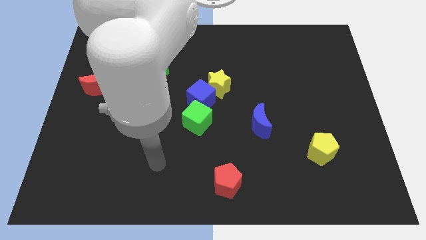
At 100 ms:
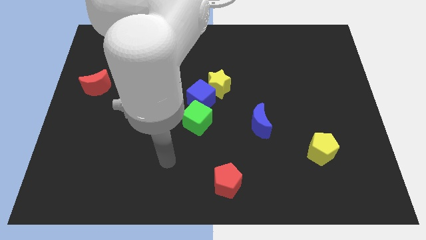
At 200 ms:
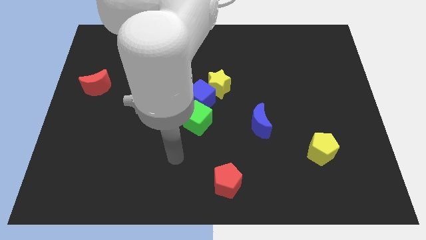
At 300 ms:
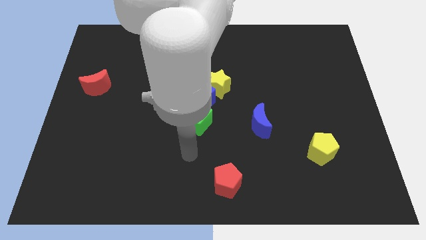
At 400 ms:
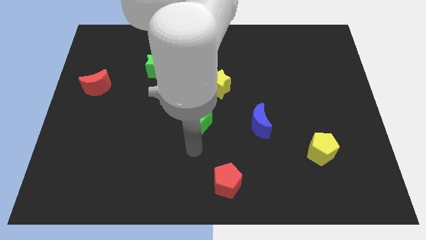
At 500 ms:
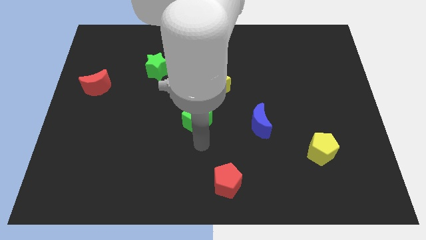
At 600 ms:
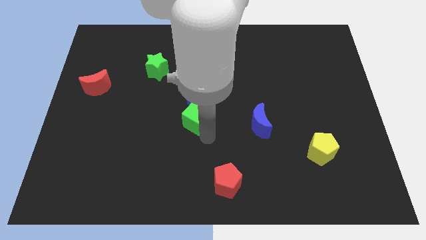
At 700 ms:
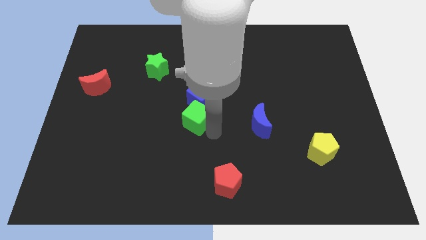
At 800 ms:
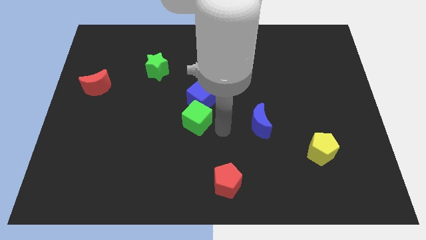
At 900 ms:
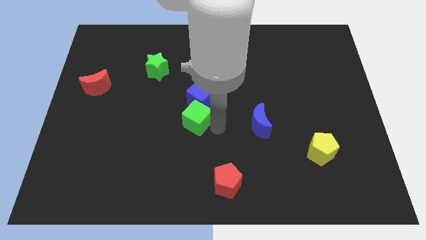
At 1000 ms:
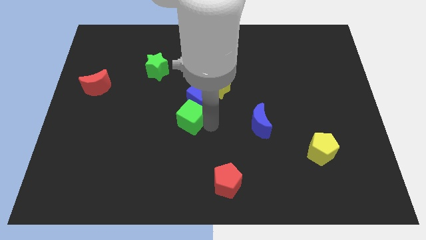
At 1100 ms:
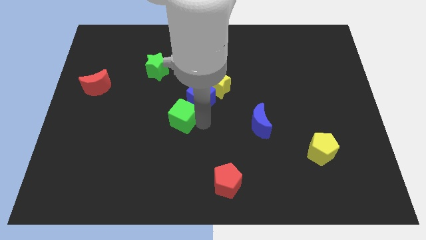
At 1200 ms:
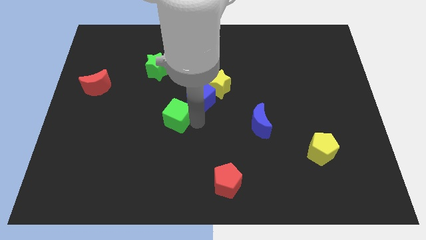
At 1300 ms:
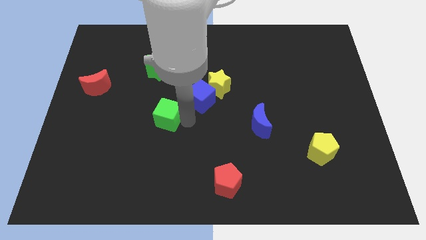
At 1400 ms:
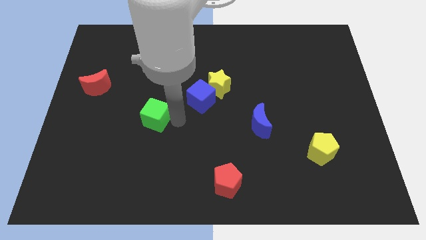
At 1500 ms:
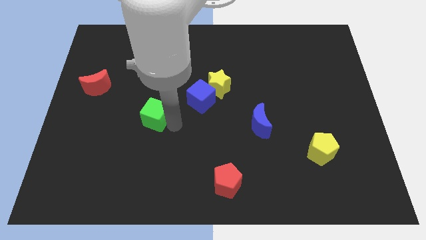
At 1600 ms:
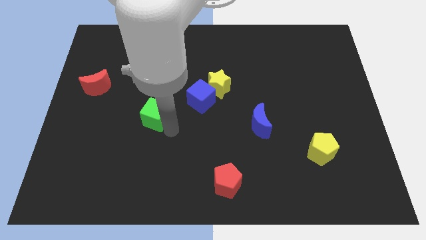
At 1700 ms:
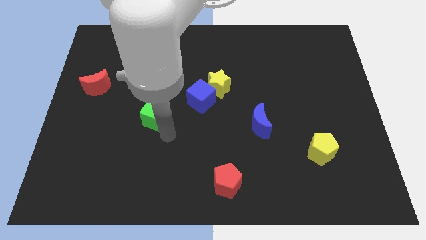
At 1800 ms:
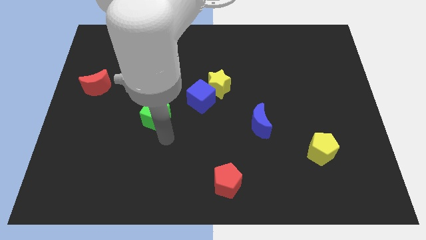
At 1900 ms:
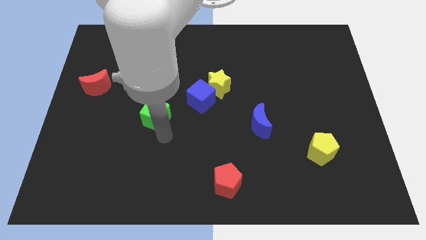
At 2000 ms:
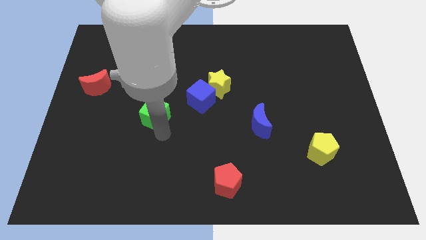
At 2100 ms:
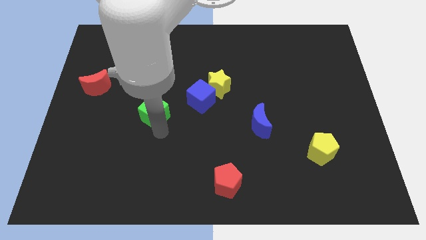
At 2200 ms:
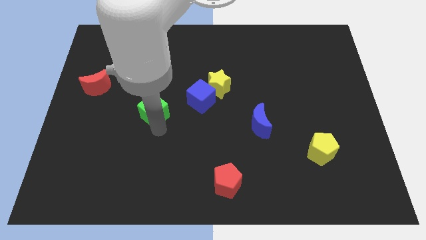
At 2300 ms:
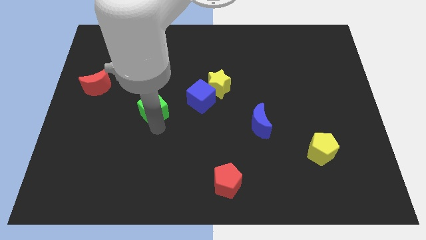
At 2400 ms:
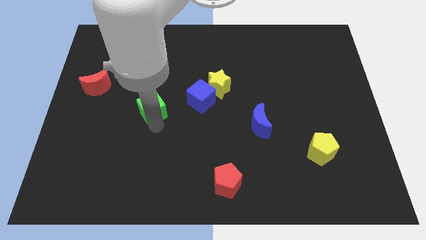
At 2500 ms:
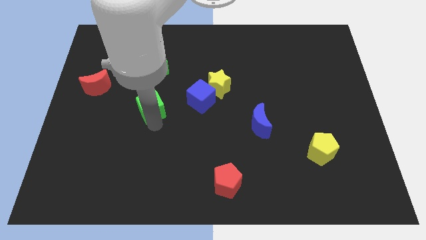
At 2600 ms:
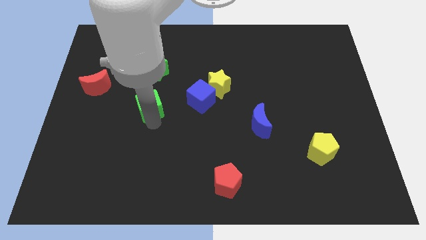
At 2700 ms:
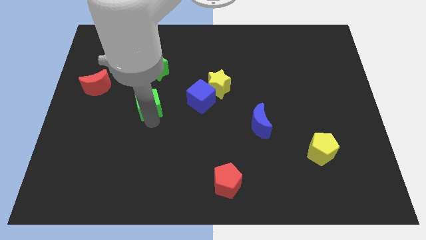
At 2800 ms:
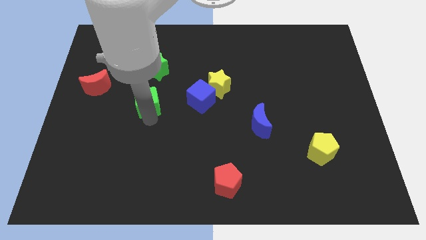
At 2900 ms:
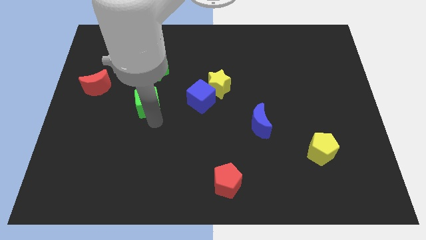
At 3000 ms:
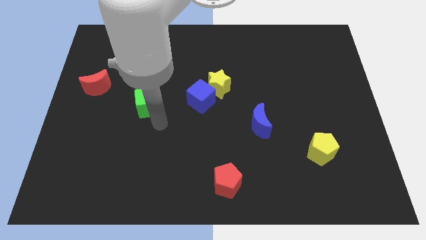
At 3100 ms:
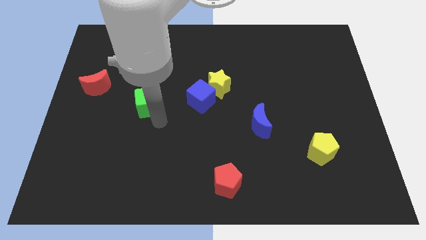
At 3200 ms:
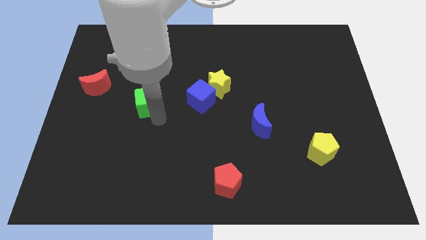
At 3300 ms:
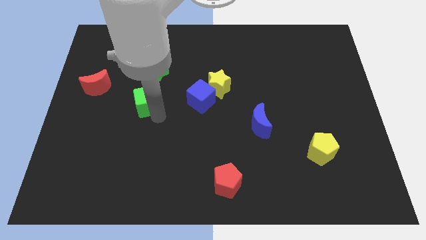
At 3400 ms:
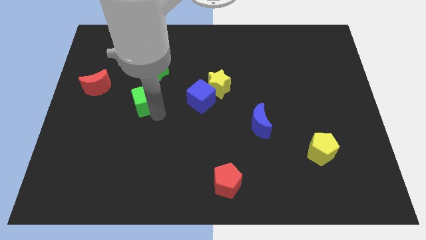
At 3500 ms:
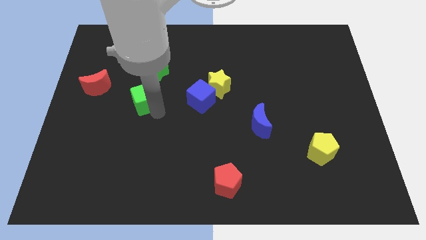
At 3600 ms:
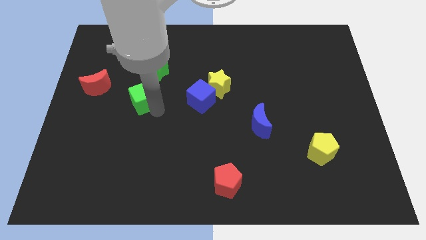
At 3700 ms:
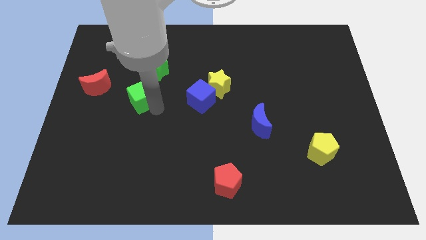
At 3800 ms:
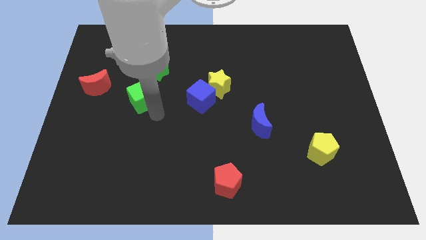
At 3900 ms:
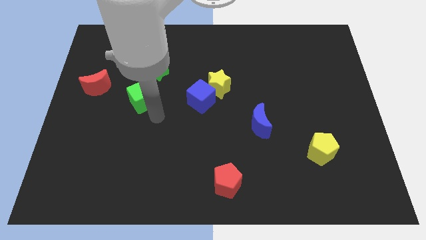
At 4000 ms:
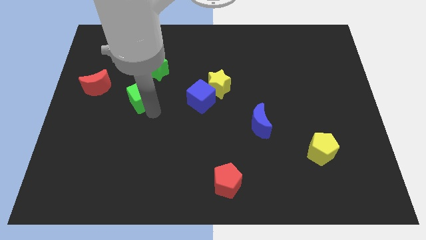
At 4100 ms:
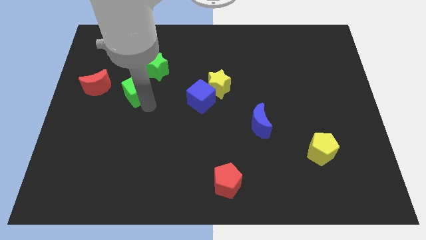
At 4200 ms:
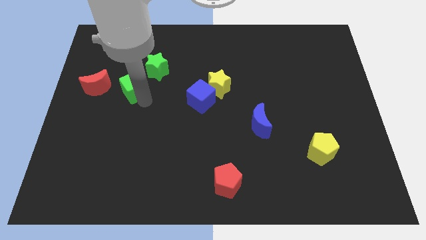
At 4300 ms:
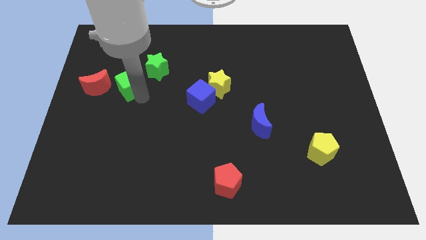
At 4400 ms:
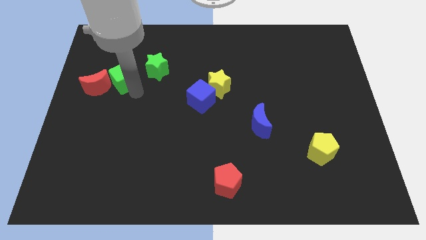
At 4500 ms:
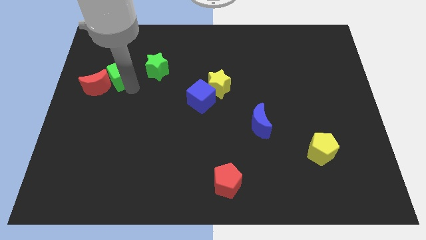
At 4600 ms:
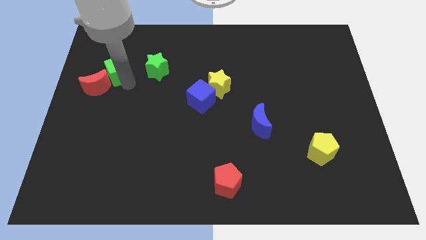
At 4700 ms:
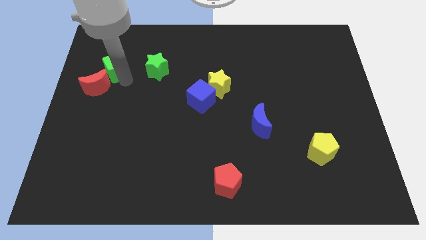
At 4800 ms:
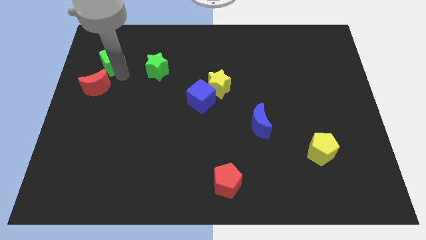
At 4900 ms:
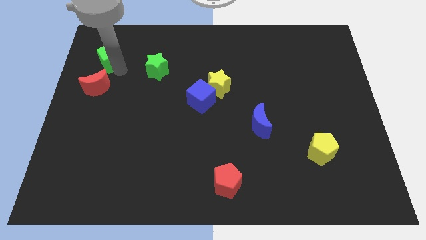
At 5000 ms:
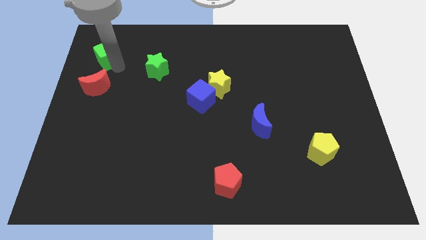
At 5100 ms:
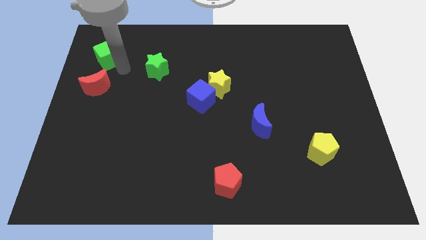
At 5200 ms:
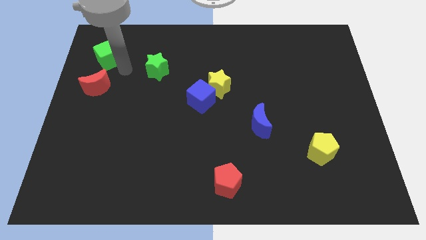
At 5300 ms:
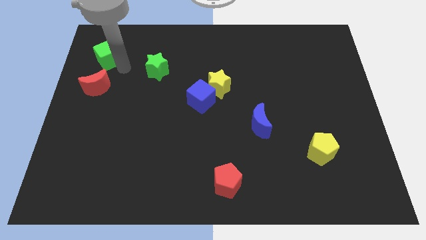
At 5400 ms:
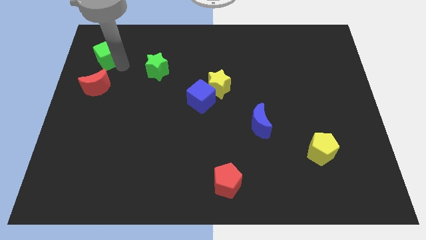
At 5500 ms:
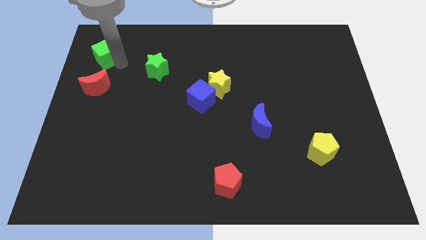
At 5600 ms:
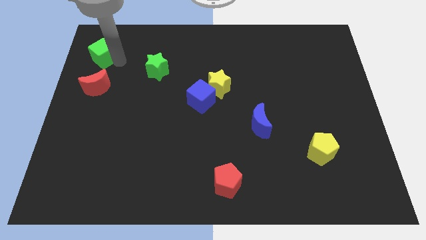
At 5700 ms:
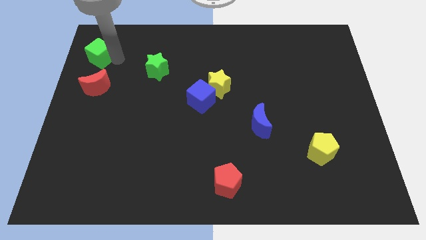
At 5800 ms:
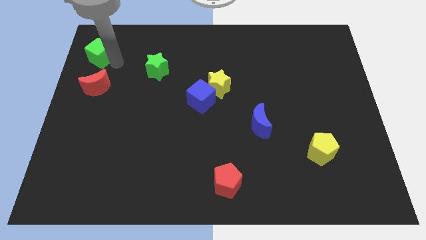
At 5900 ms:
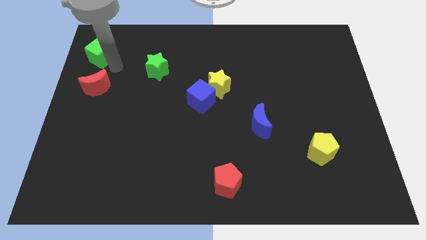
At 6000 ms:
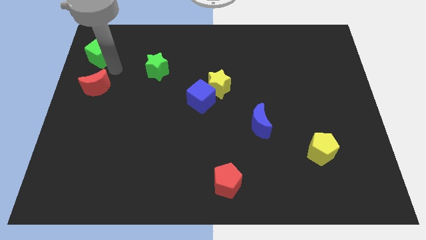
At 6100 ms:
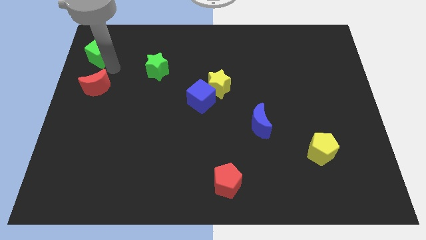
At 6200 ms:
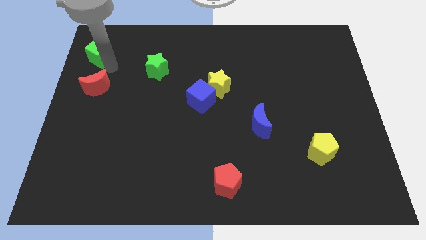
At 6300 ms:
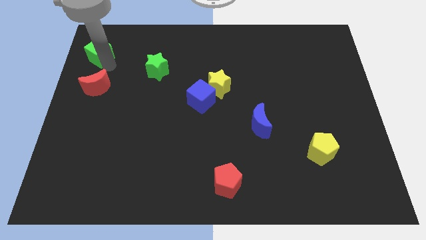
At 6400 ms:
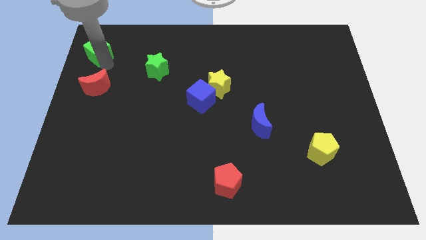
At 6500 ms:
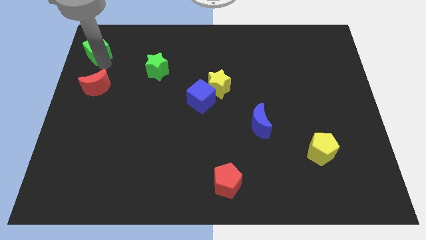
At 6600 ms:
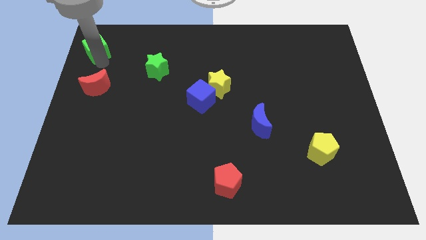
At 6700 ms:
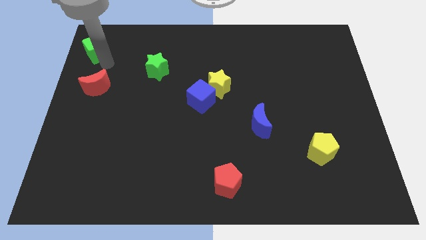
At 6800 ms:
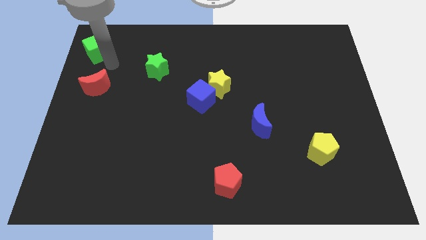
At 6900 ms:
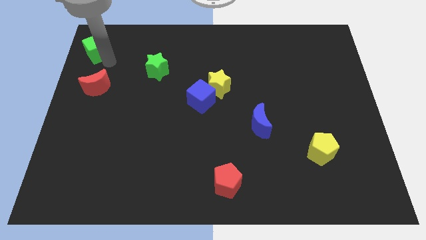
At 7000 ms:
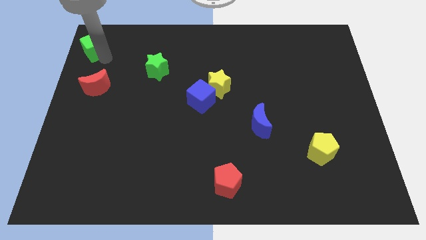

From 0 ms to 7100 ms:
put the green cube to the top left corner
